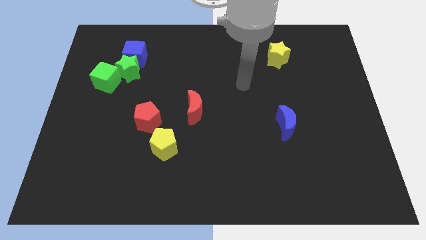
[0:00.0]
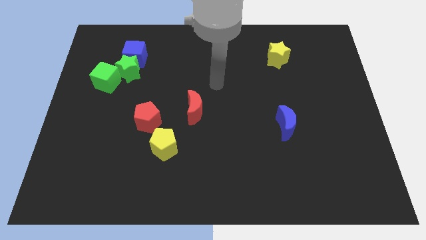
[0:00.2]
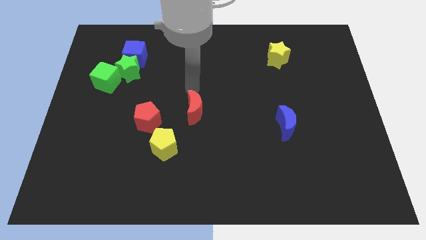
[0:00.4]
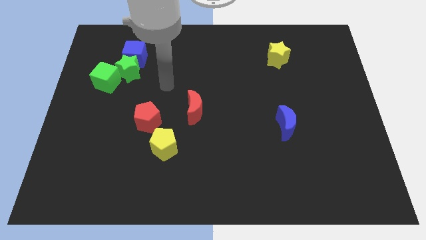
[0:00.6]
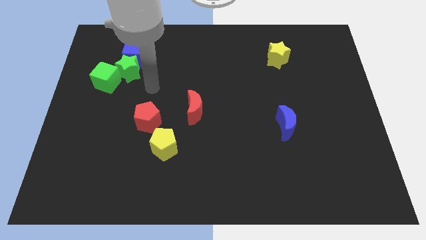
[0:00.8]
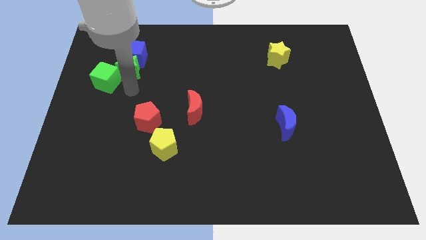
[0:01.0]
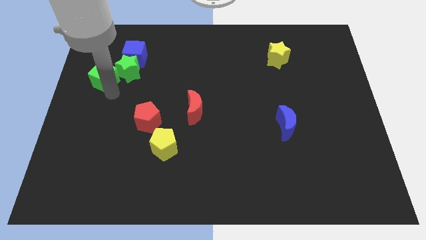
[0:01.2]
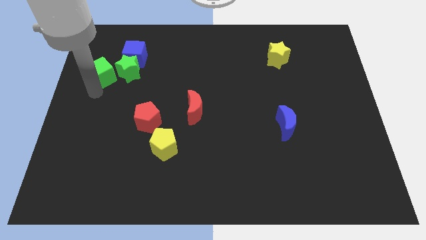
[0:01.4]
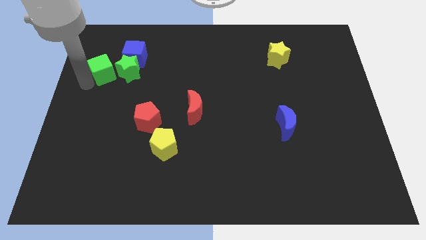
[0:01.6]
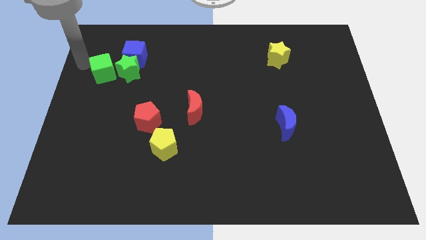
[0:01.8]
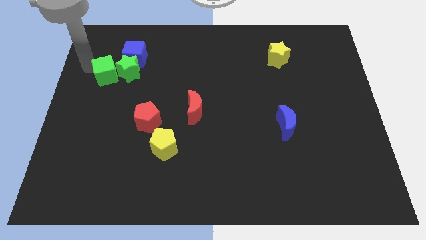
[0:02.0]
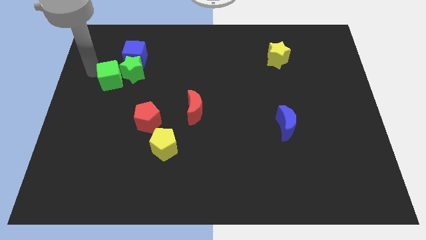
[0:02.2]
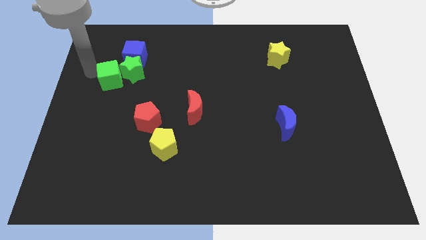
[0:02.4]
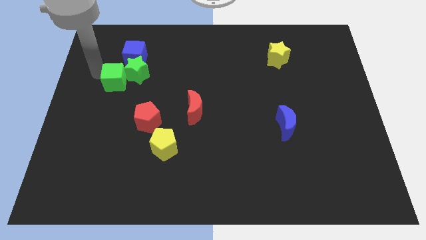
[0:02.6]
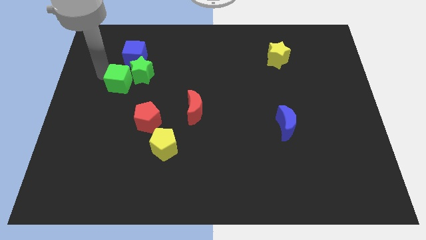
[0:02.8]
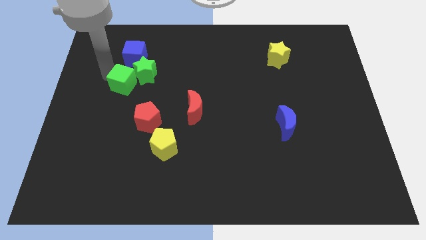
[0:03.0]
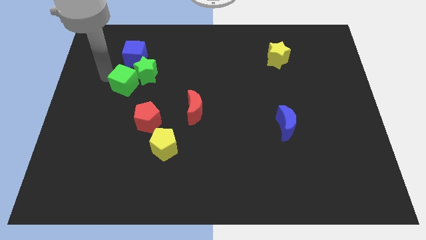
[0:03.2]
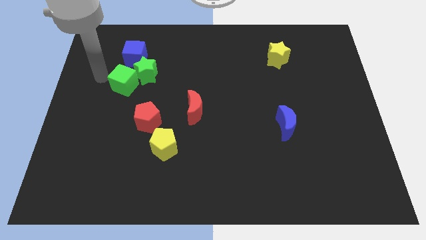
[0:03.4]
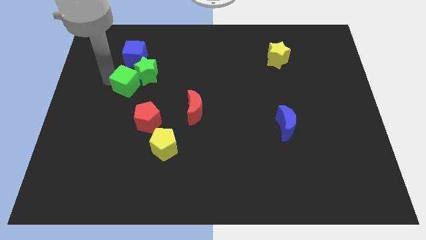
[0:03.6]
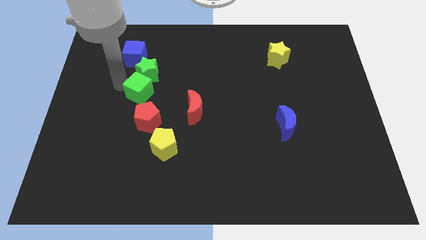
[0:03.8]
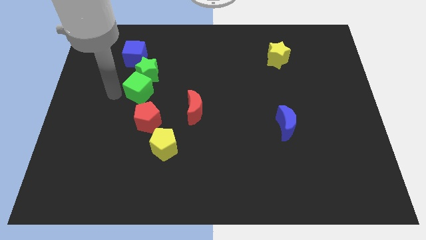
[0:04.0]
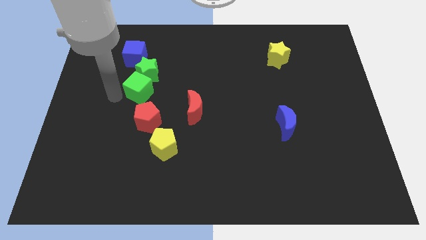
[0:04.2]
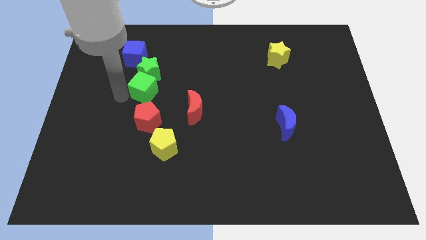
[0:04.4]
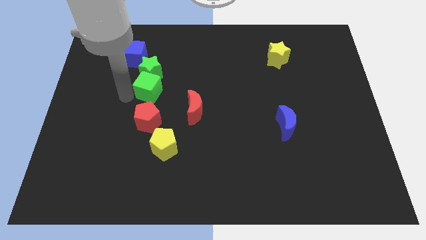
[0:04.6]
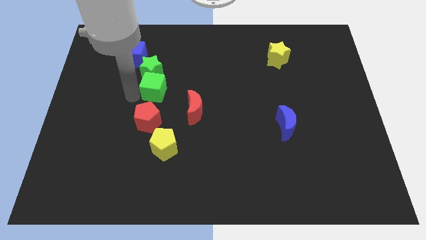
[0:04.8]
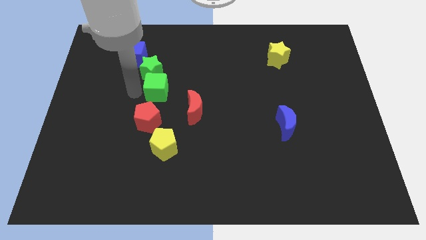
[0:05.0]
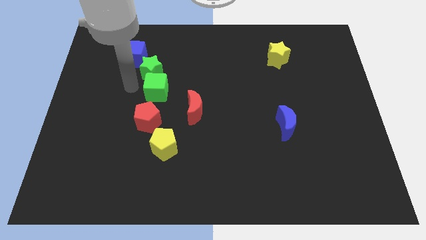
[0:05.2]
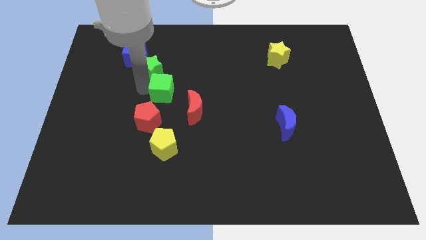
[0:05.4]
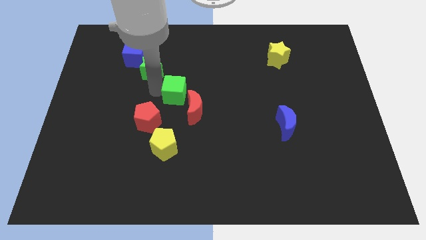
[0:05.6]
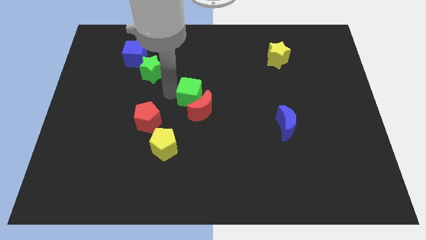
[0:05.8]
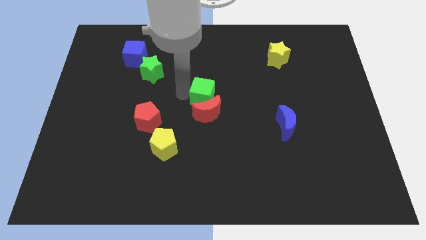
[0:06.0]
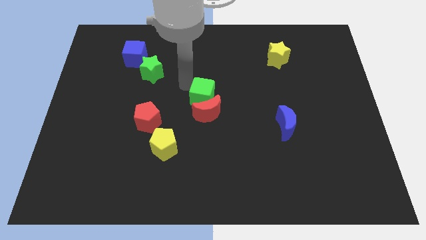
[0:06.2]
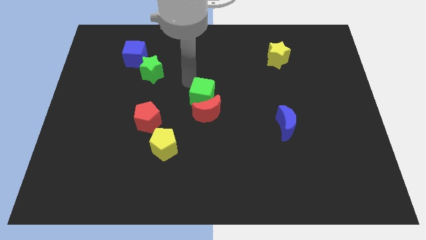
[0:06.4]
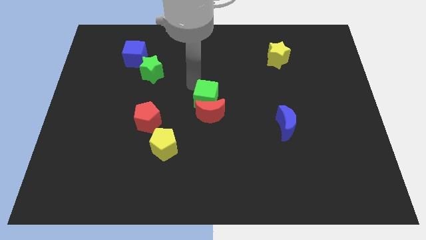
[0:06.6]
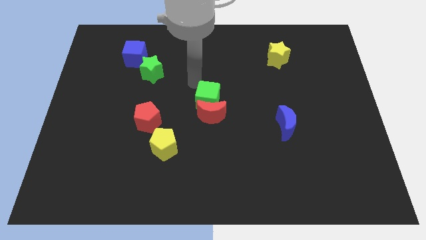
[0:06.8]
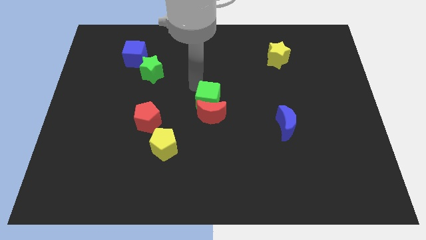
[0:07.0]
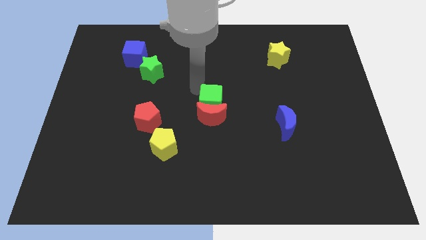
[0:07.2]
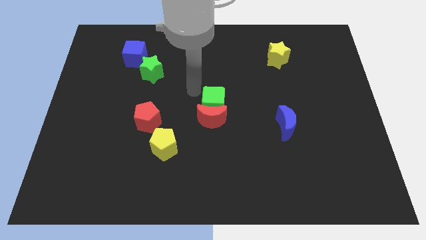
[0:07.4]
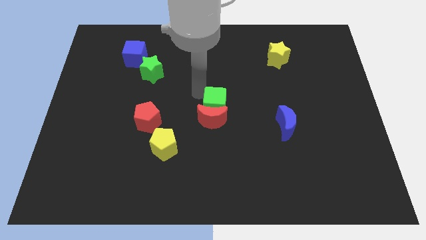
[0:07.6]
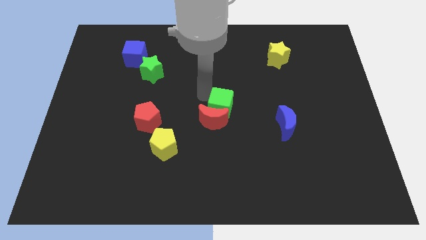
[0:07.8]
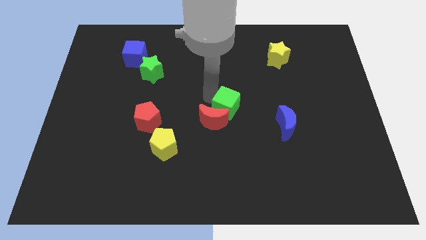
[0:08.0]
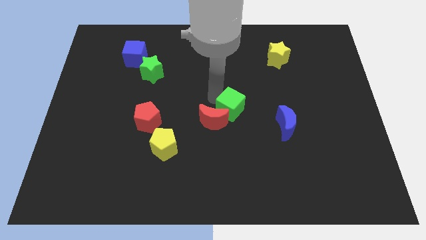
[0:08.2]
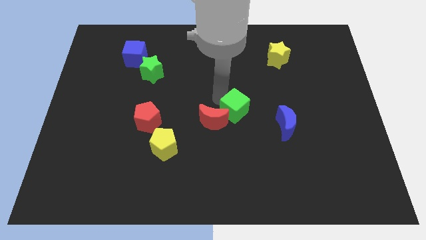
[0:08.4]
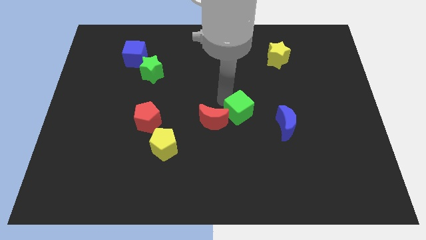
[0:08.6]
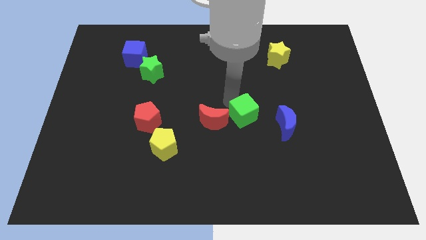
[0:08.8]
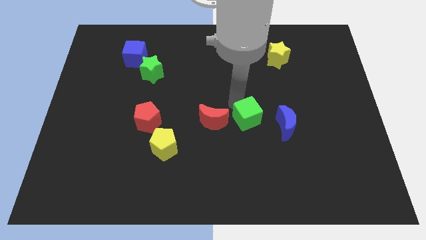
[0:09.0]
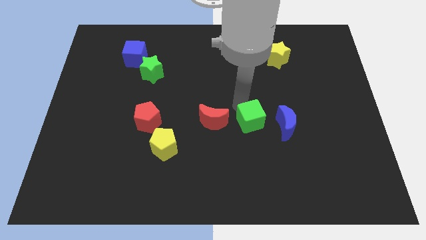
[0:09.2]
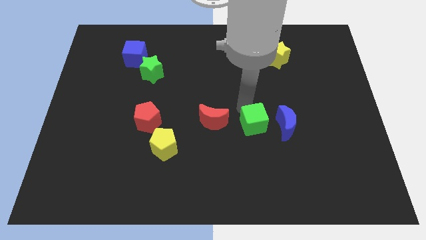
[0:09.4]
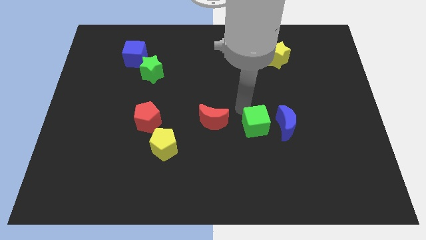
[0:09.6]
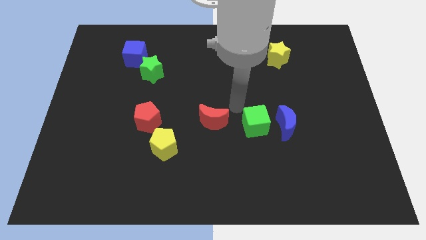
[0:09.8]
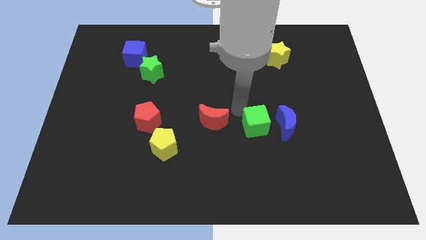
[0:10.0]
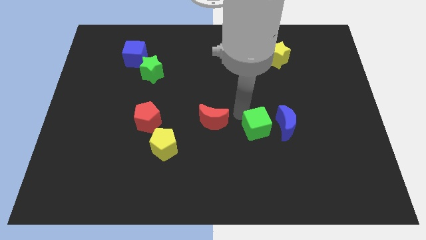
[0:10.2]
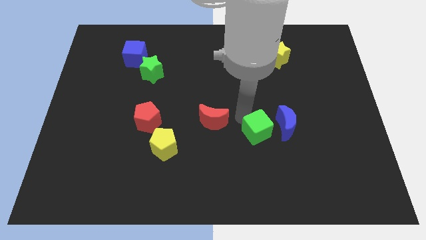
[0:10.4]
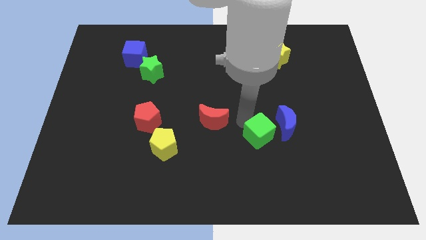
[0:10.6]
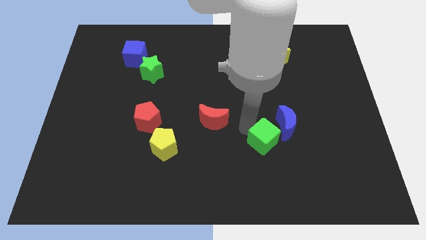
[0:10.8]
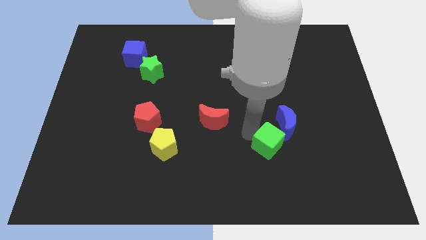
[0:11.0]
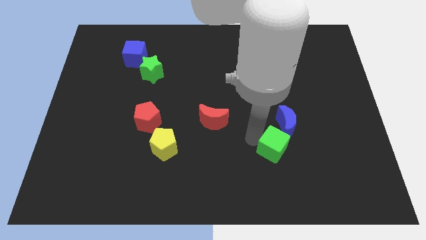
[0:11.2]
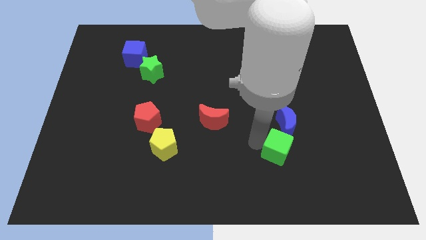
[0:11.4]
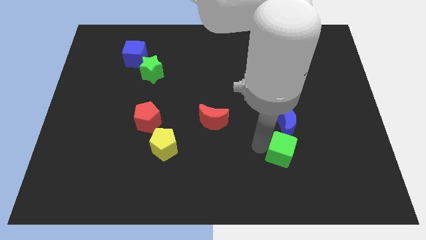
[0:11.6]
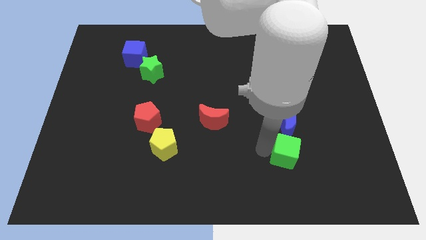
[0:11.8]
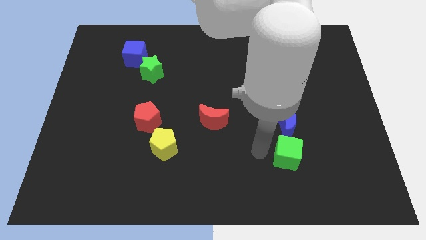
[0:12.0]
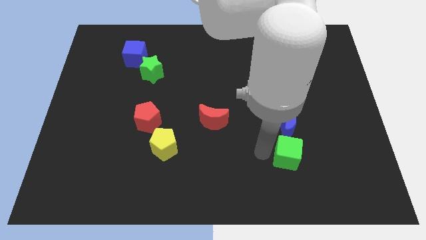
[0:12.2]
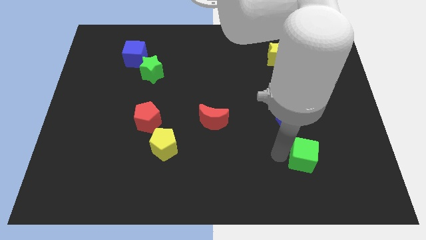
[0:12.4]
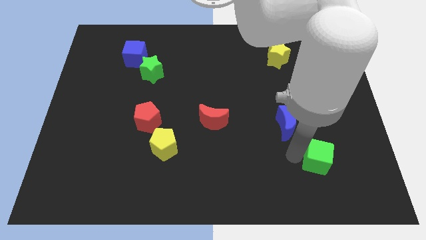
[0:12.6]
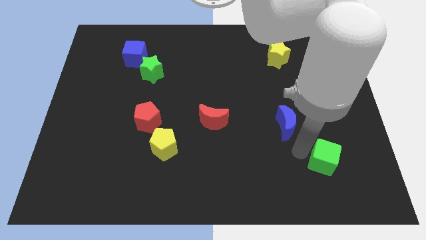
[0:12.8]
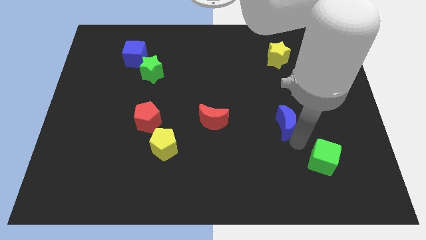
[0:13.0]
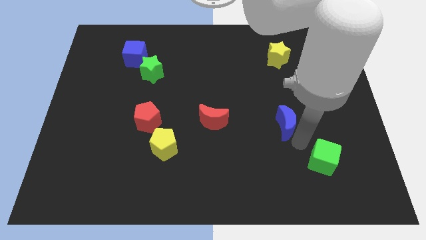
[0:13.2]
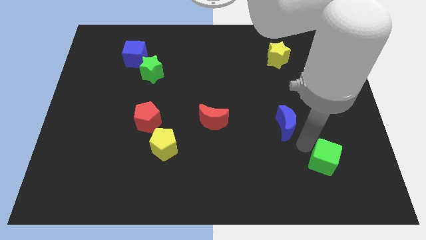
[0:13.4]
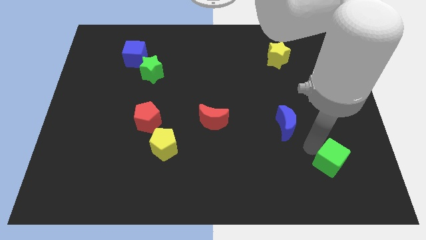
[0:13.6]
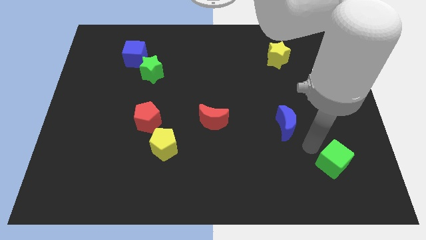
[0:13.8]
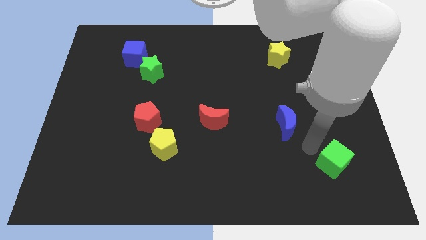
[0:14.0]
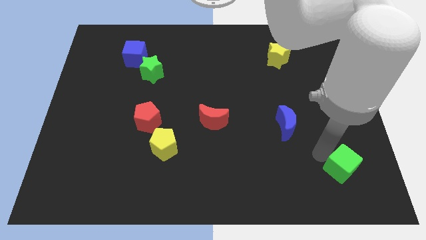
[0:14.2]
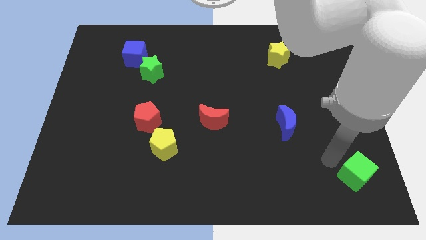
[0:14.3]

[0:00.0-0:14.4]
slide the green cube to the lower right corner

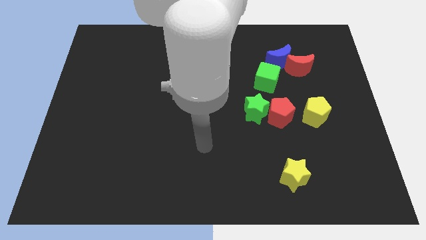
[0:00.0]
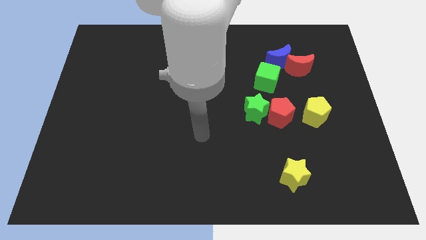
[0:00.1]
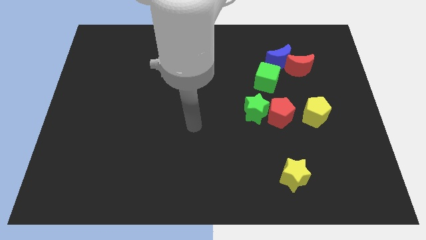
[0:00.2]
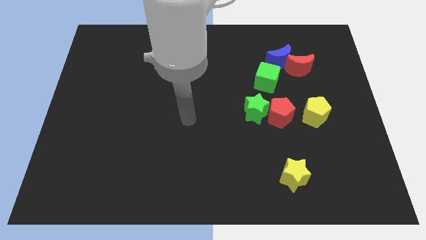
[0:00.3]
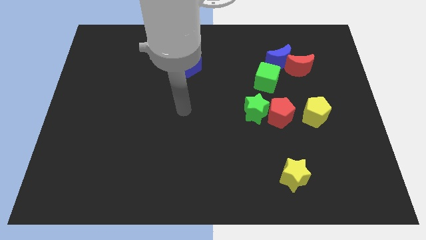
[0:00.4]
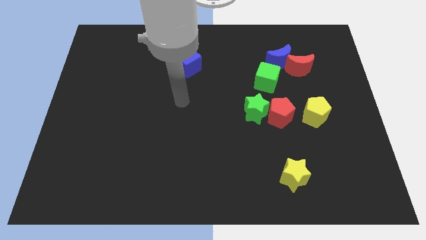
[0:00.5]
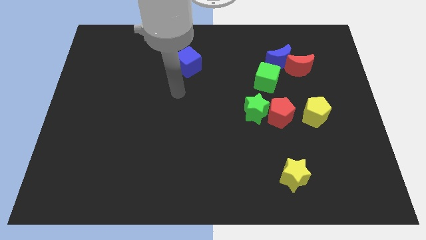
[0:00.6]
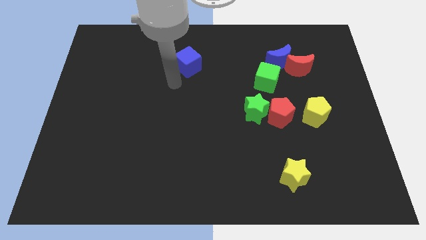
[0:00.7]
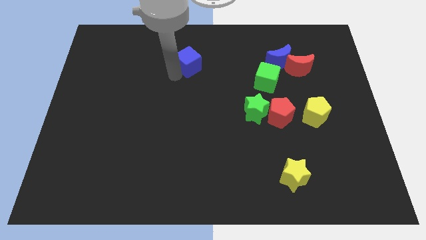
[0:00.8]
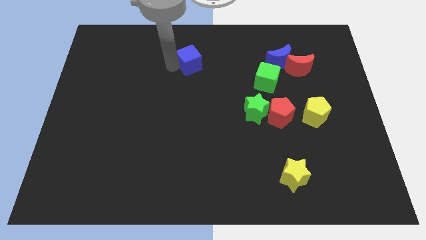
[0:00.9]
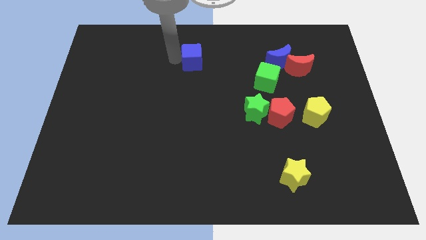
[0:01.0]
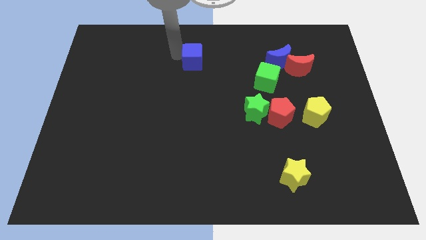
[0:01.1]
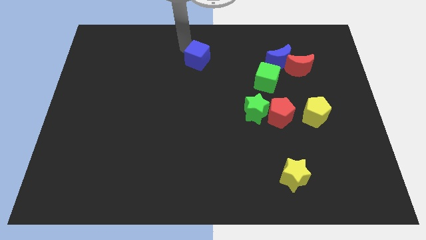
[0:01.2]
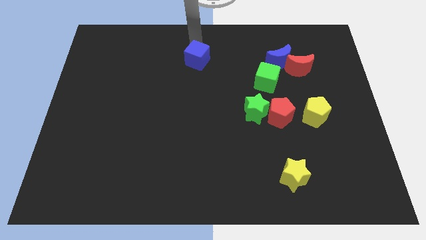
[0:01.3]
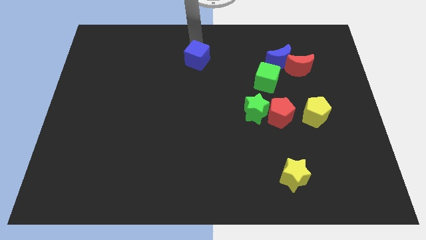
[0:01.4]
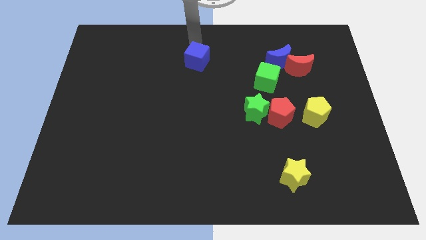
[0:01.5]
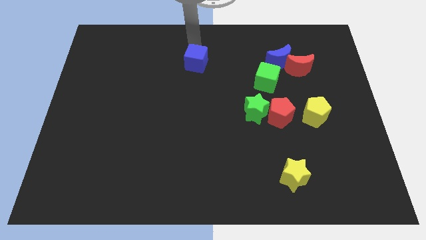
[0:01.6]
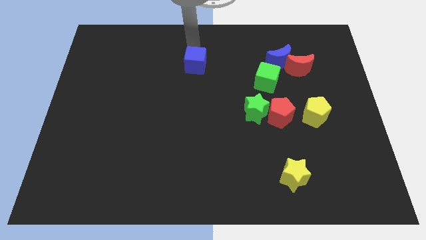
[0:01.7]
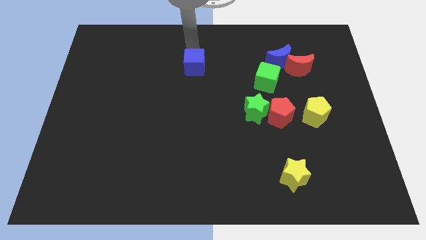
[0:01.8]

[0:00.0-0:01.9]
push the blue cube to the center
